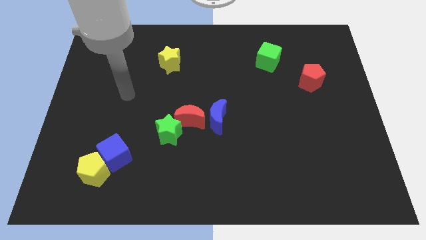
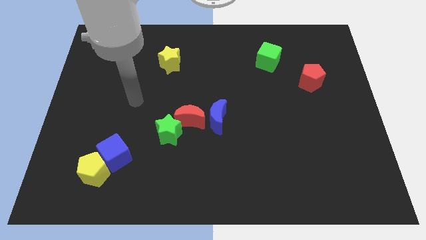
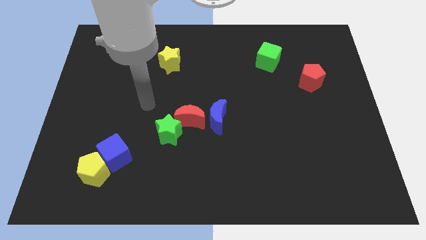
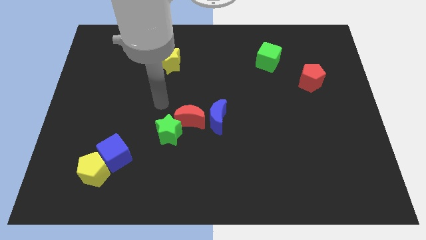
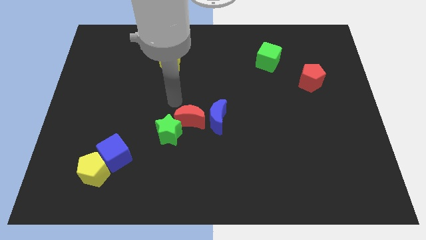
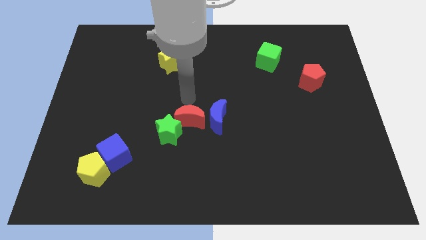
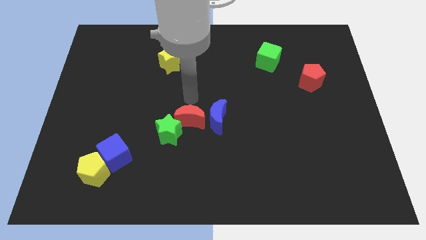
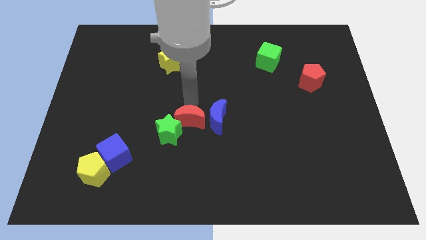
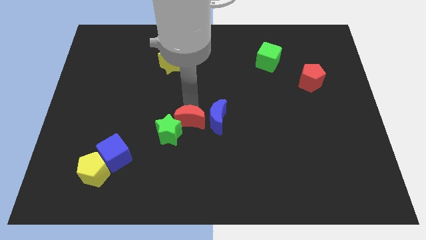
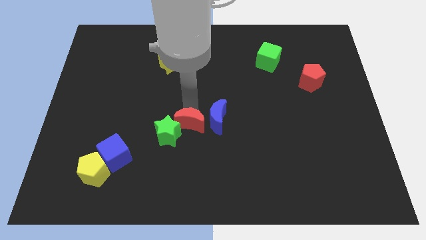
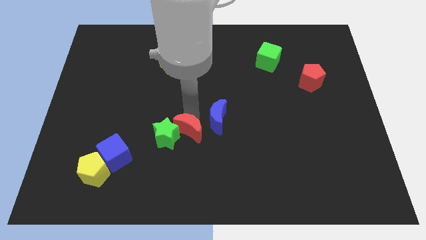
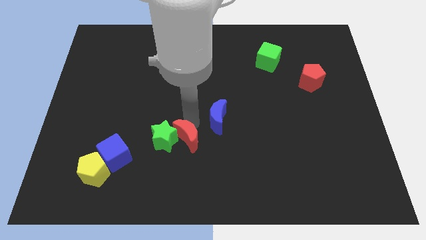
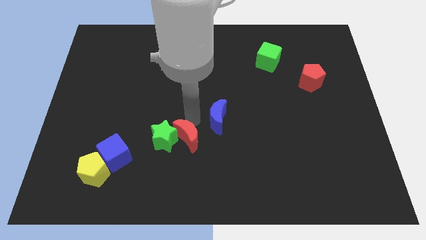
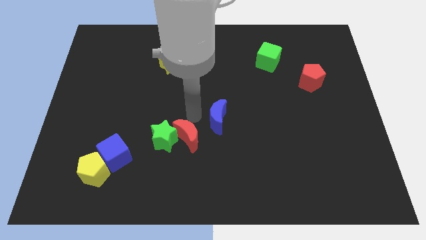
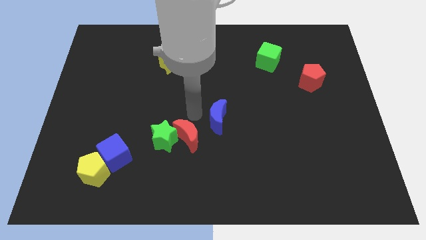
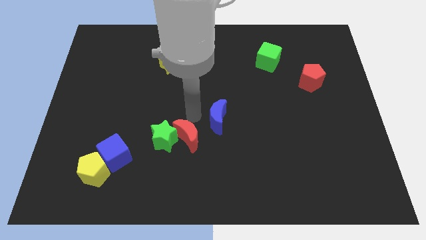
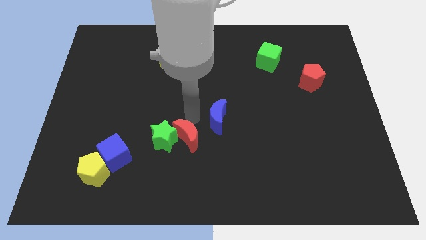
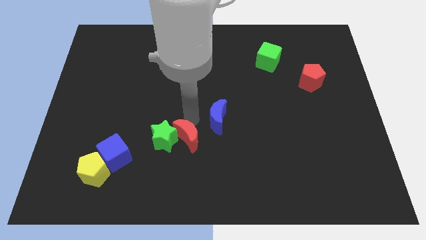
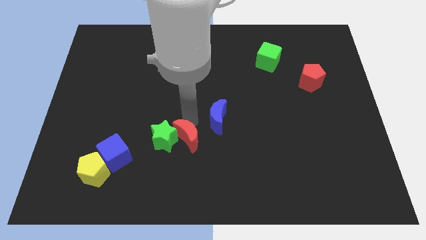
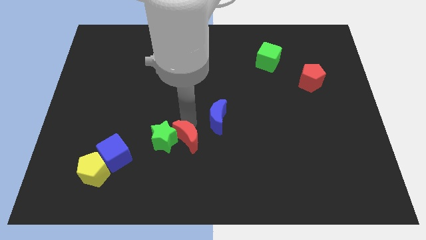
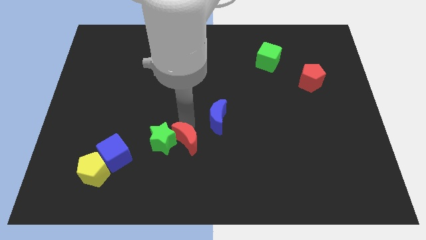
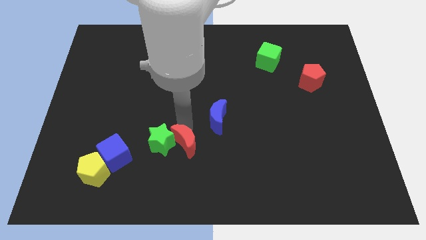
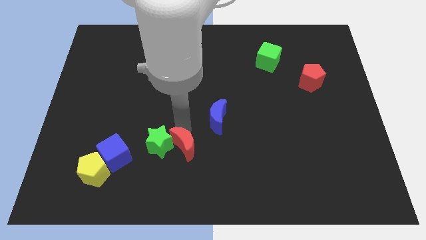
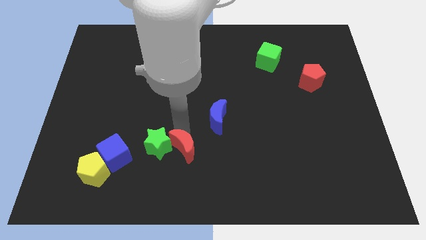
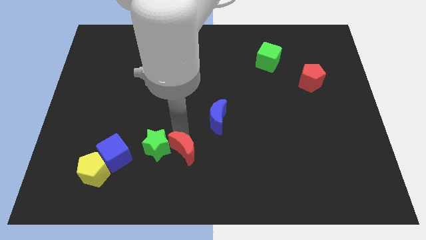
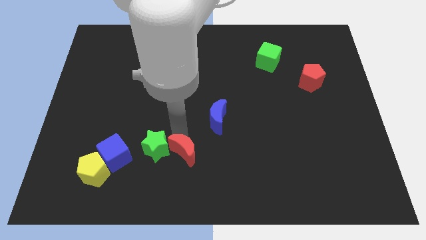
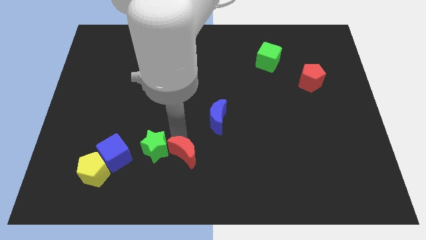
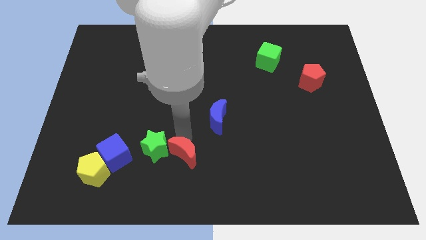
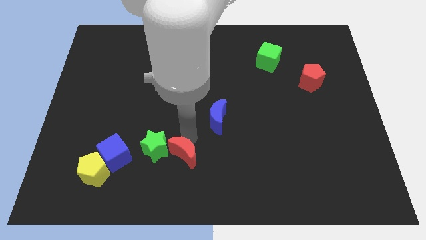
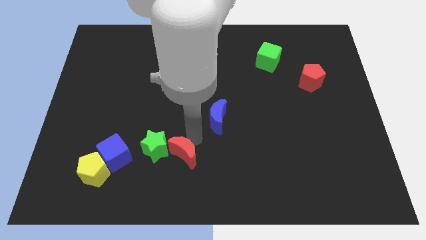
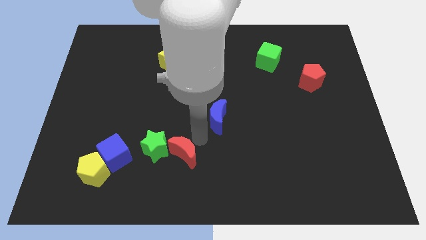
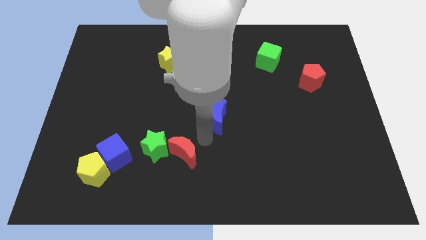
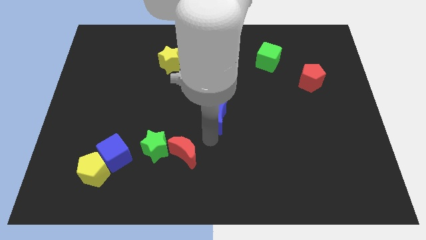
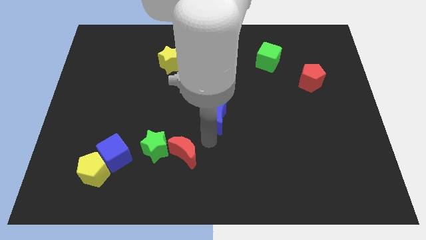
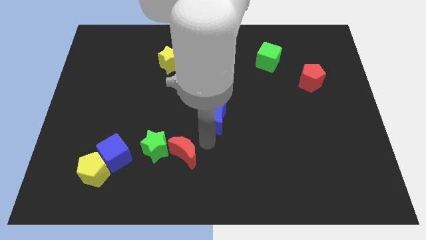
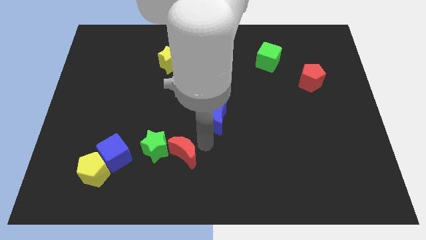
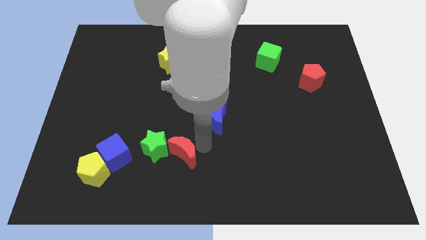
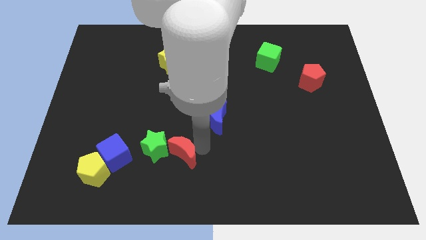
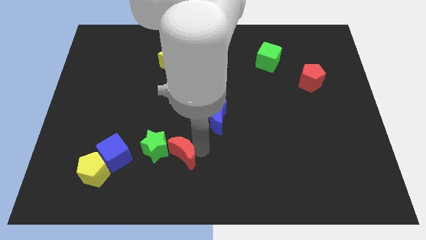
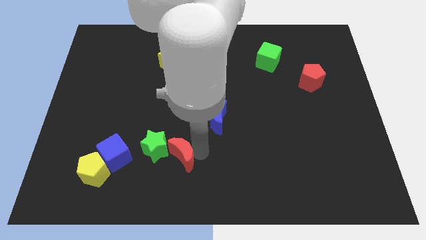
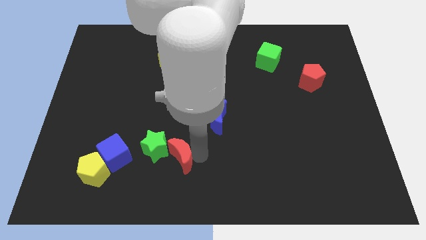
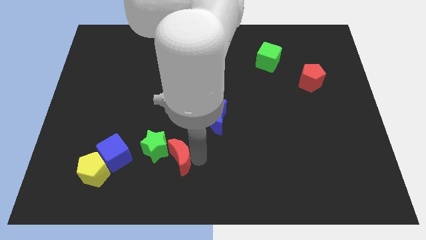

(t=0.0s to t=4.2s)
move the red moon a little bit diagonally down and to the left

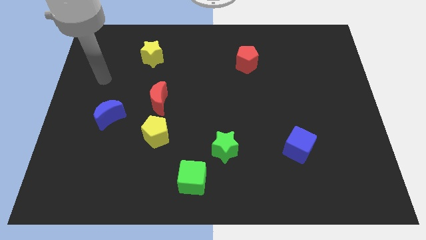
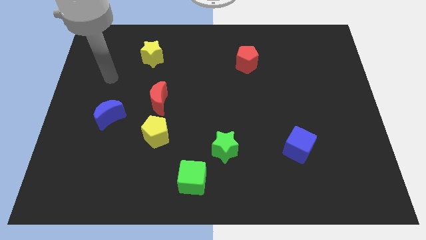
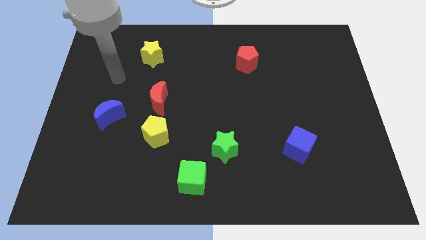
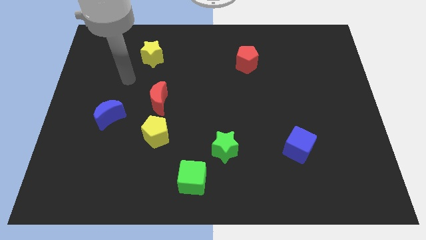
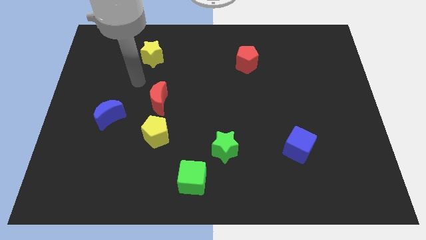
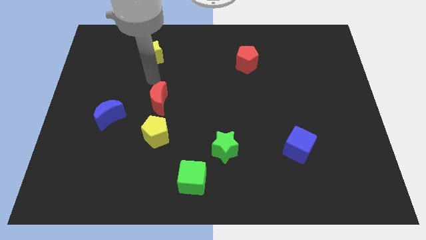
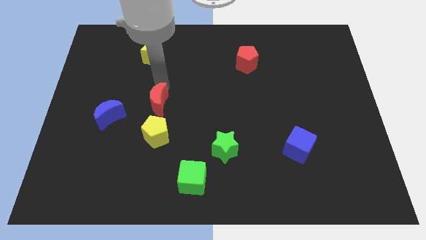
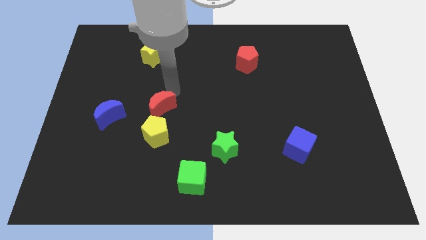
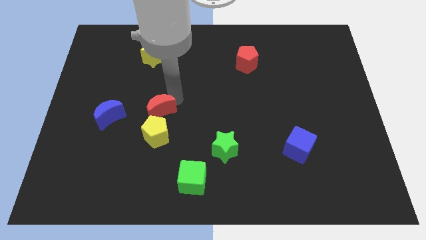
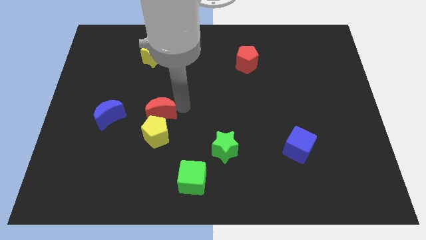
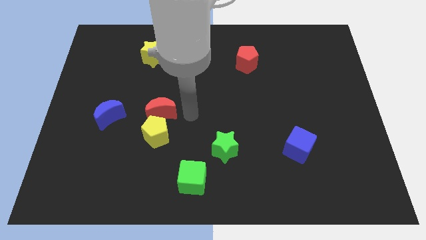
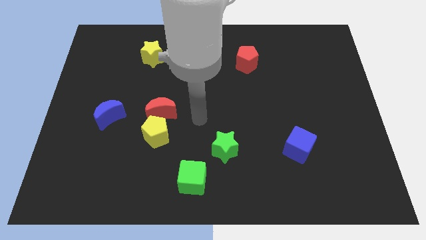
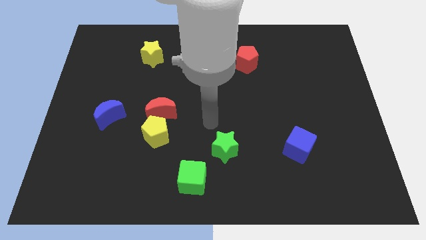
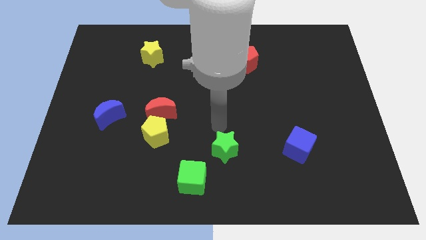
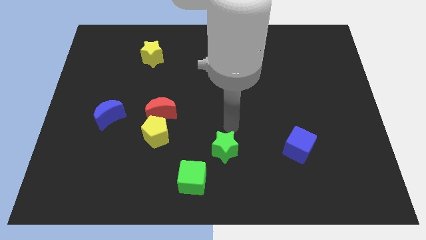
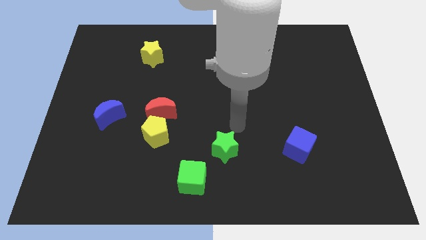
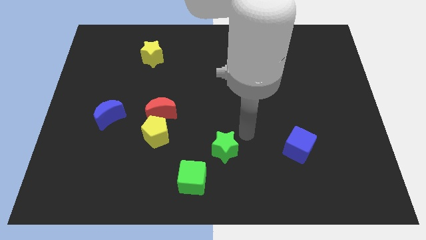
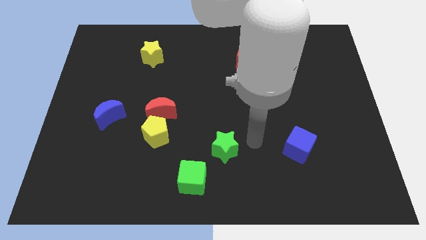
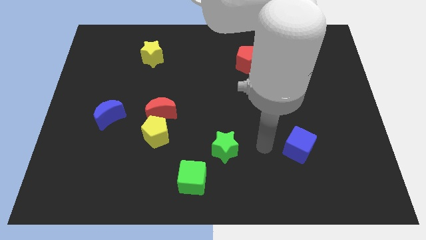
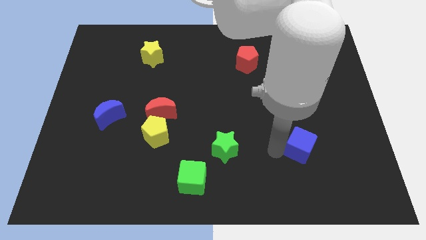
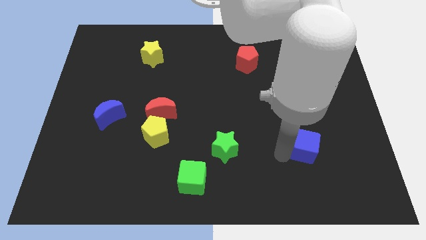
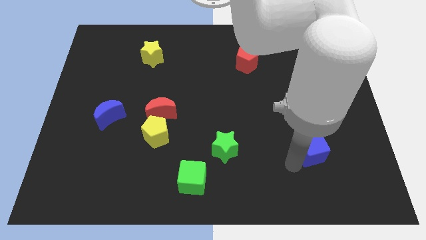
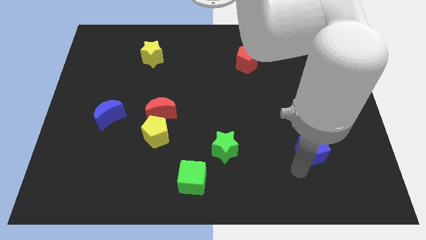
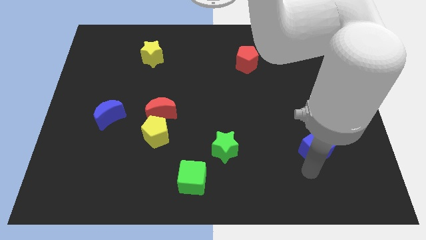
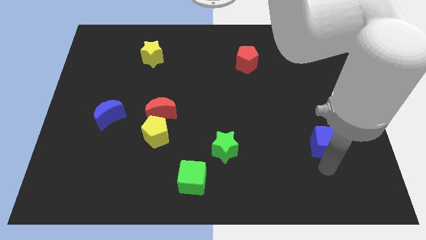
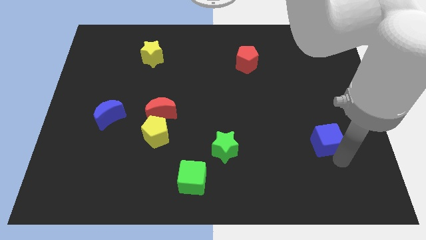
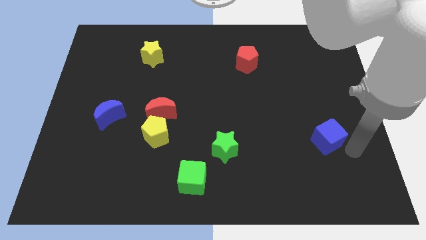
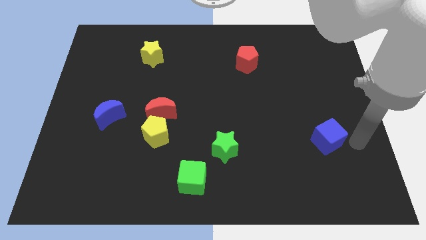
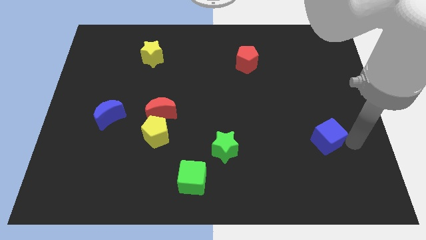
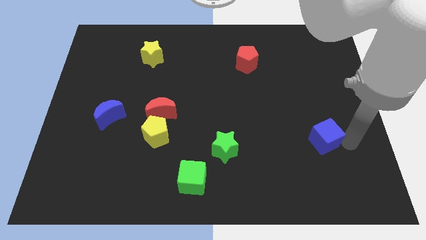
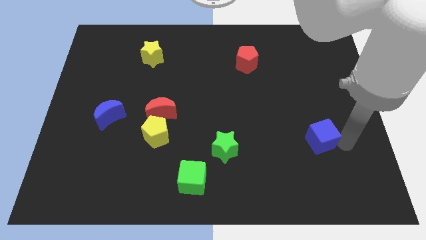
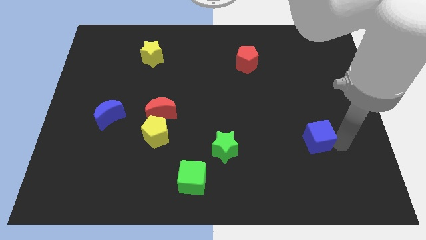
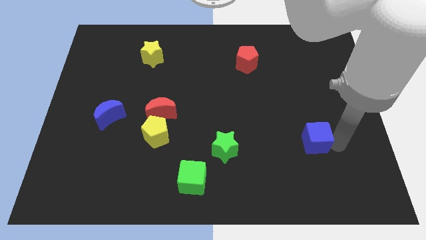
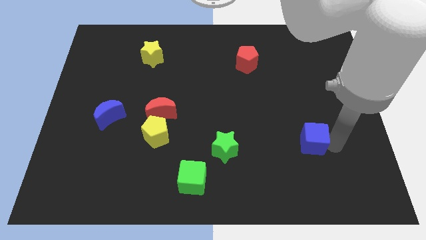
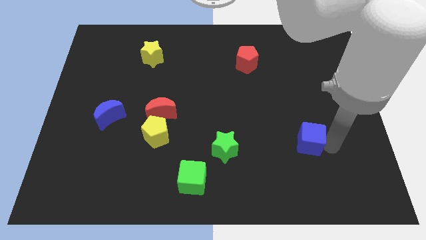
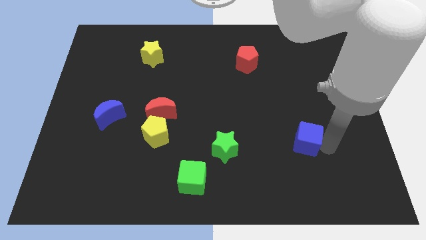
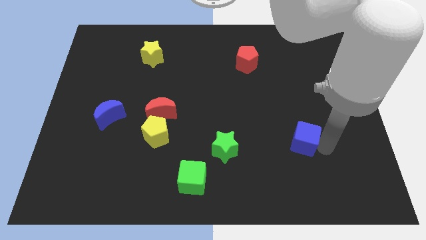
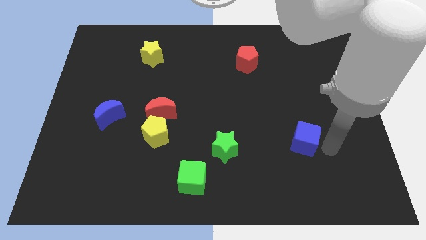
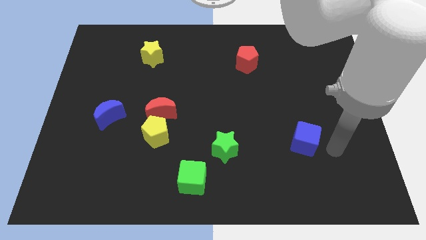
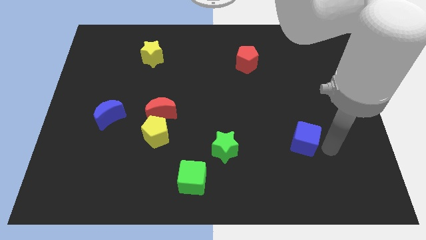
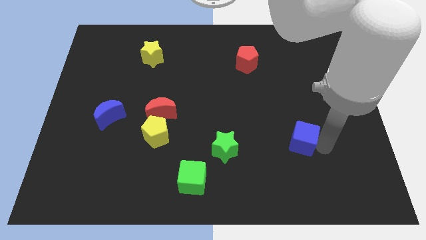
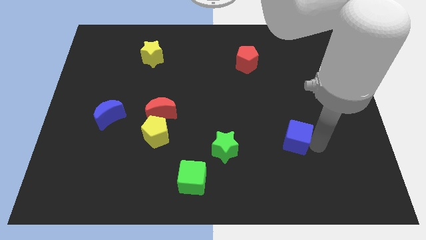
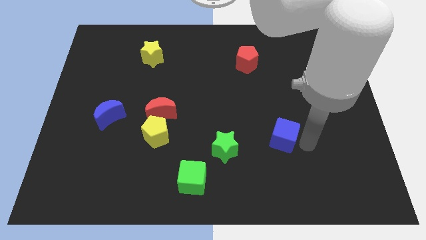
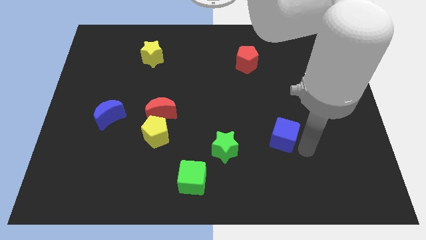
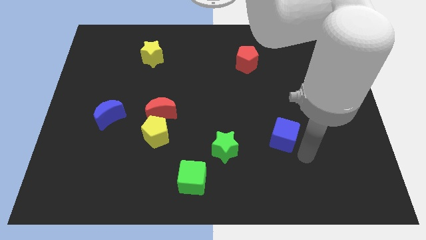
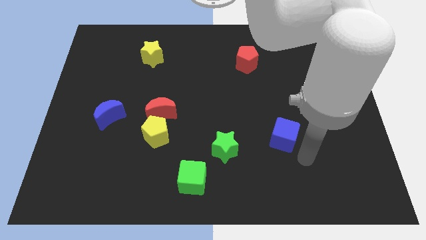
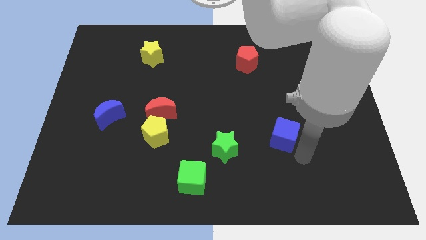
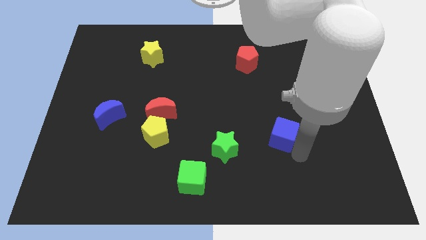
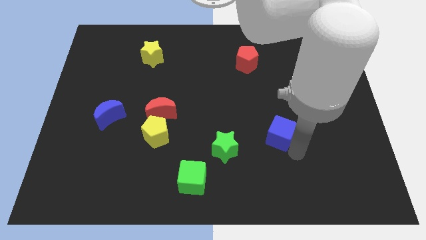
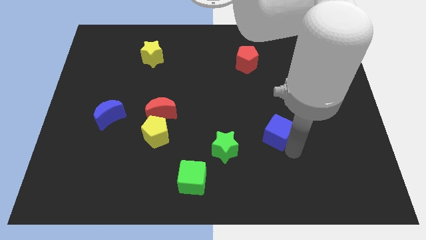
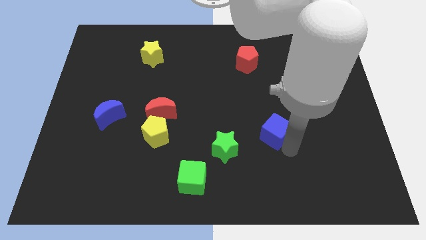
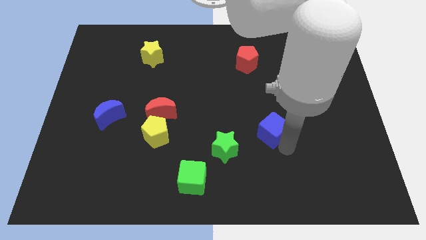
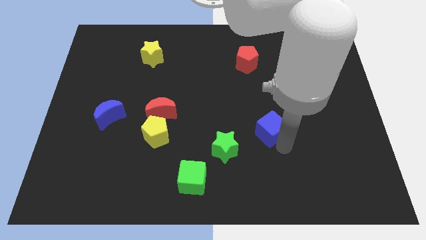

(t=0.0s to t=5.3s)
slightly slide the blue cube upwards and then to the left
